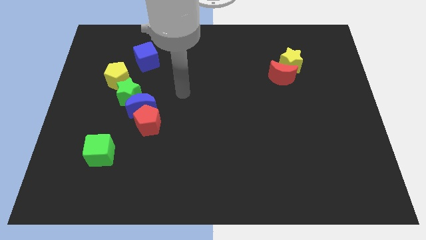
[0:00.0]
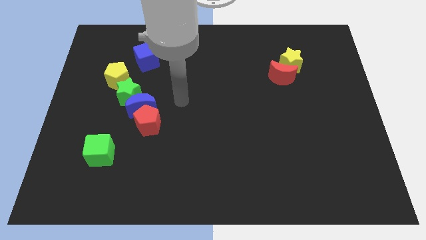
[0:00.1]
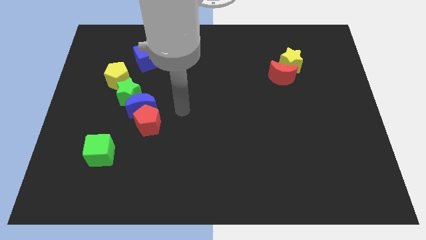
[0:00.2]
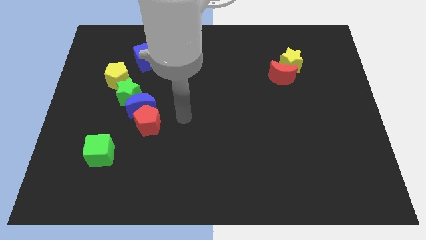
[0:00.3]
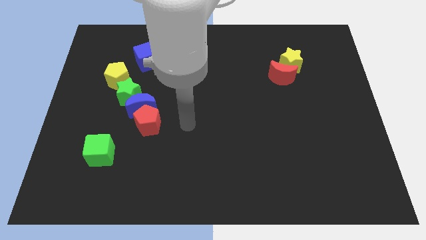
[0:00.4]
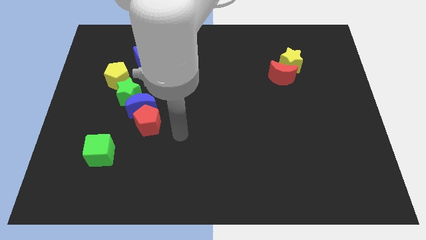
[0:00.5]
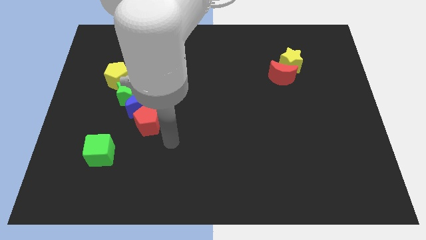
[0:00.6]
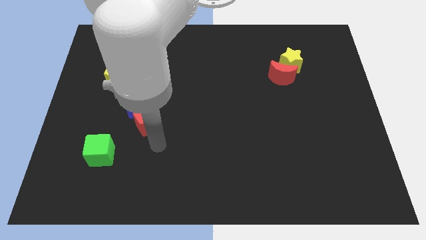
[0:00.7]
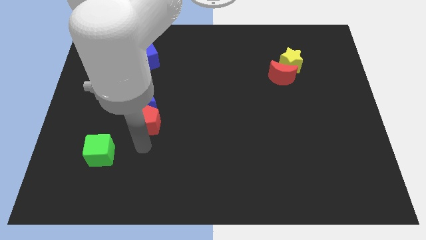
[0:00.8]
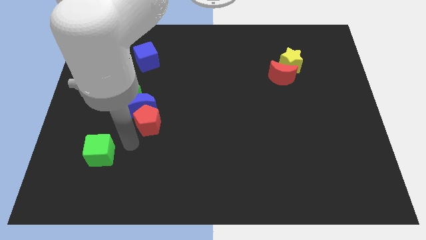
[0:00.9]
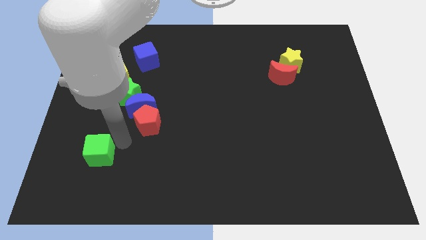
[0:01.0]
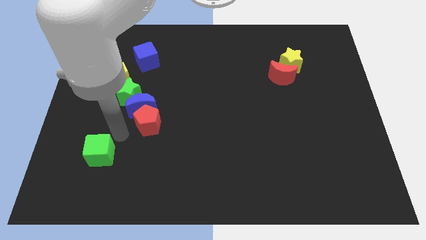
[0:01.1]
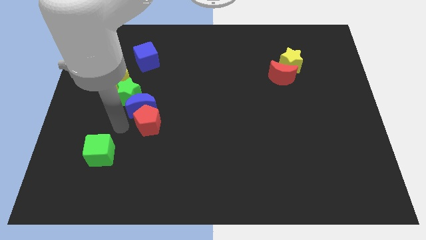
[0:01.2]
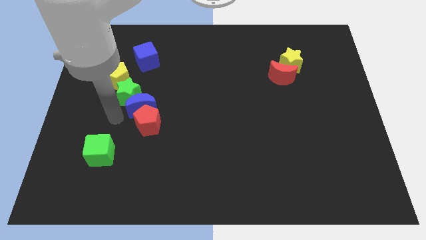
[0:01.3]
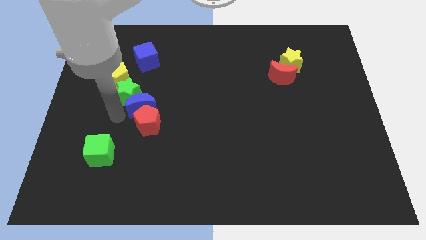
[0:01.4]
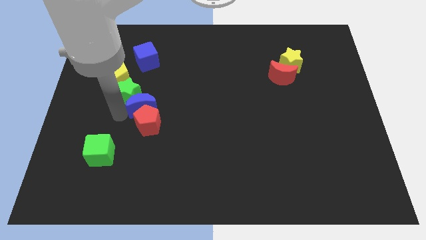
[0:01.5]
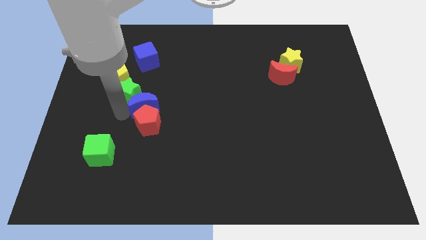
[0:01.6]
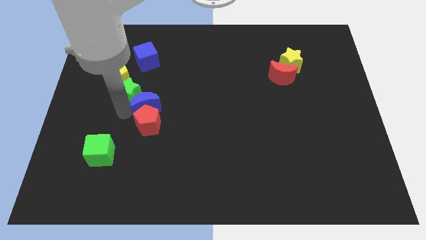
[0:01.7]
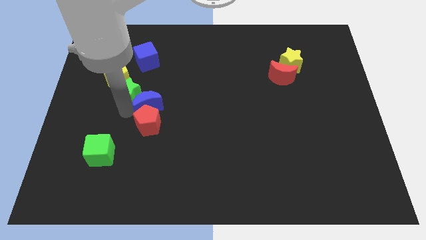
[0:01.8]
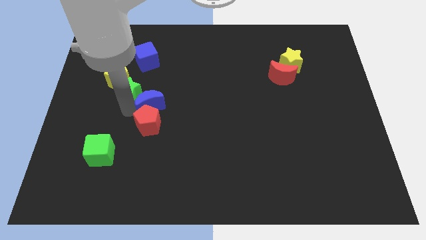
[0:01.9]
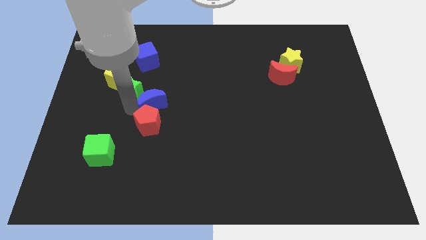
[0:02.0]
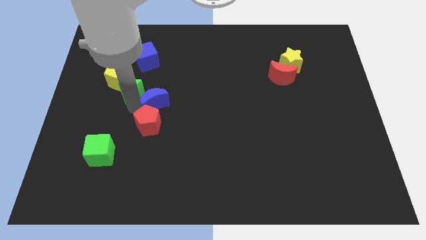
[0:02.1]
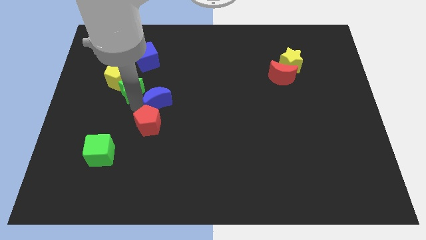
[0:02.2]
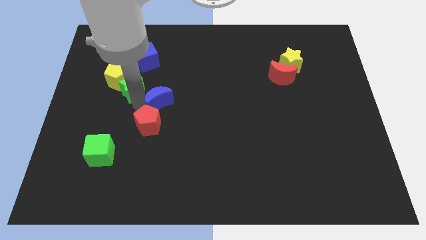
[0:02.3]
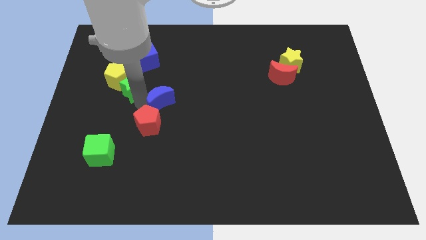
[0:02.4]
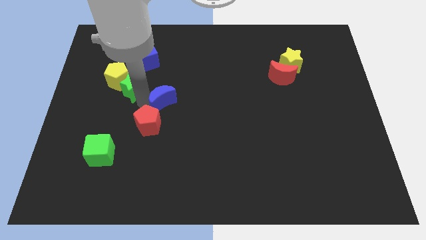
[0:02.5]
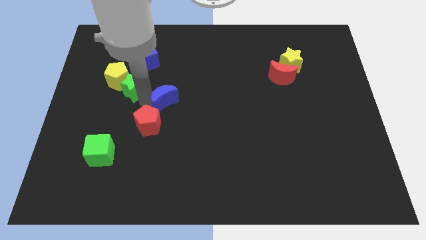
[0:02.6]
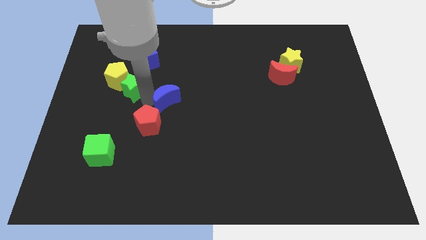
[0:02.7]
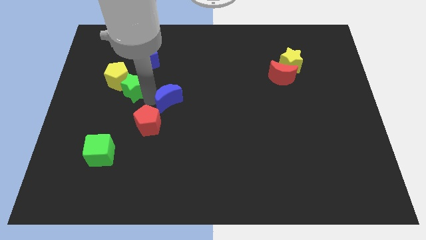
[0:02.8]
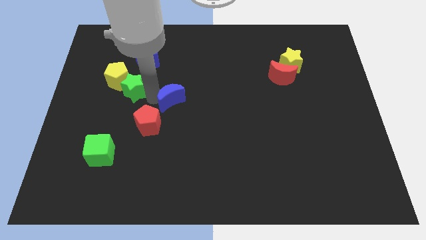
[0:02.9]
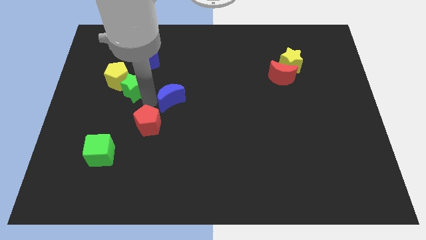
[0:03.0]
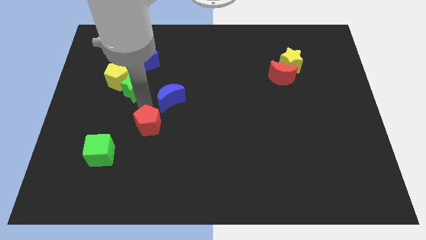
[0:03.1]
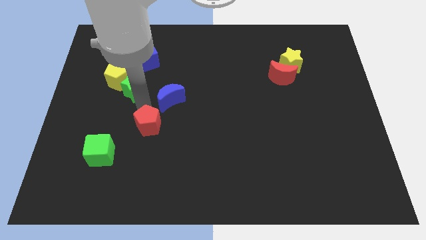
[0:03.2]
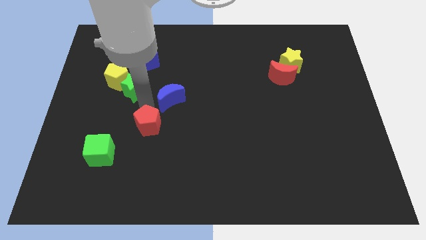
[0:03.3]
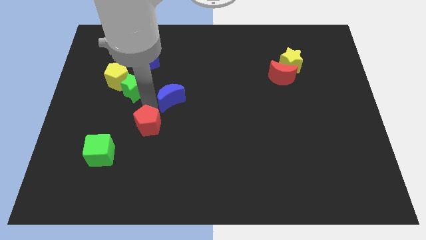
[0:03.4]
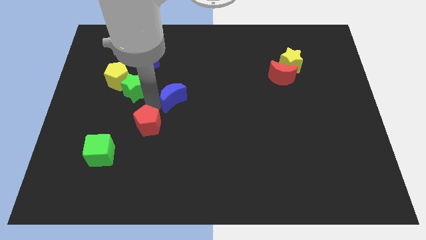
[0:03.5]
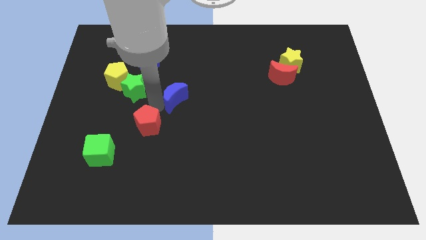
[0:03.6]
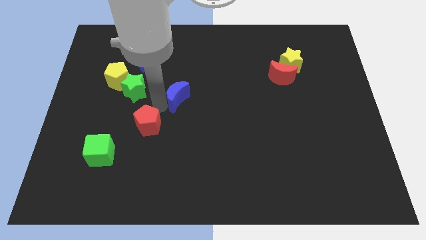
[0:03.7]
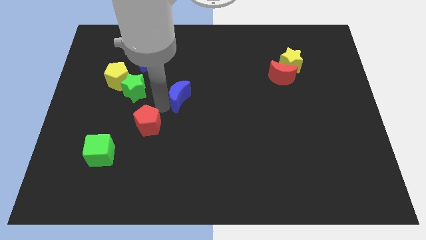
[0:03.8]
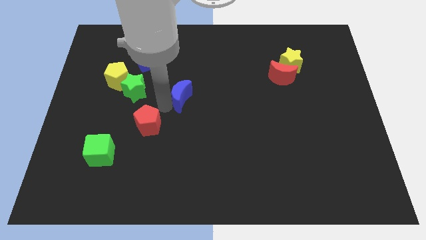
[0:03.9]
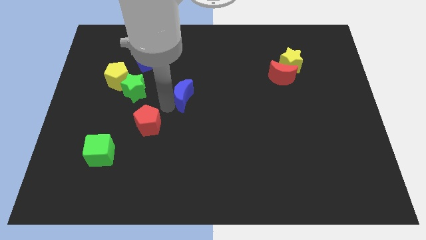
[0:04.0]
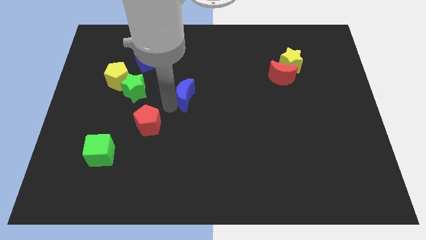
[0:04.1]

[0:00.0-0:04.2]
move the blue moon away from the green star and red pentagon

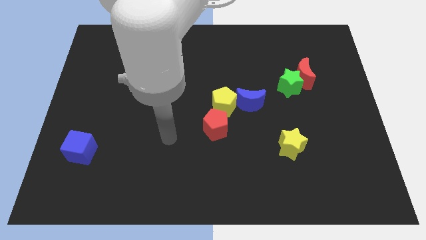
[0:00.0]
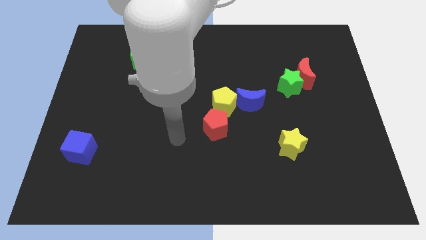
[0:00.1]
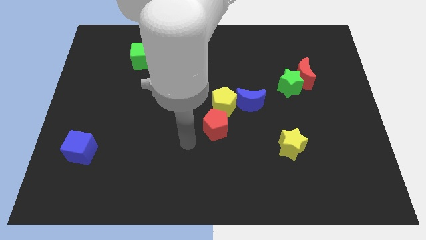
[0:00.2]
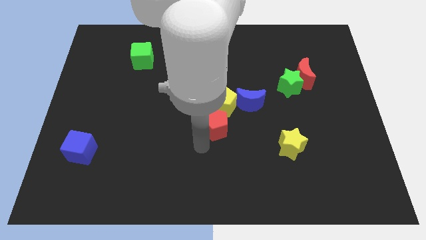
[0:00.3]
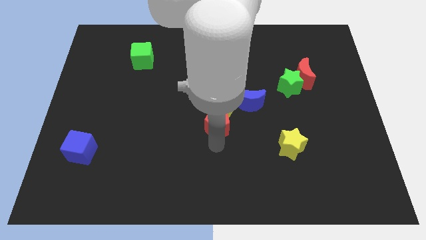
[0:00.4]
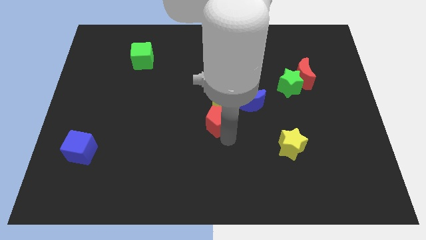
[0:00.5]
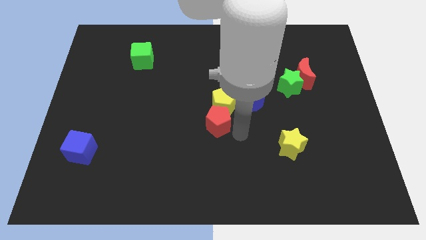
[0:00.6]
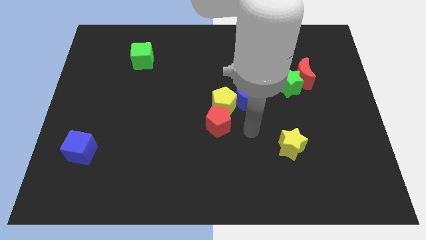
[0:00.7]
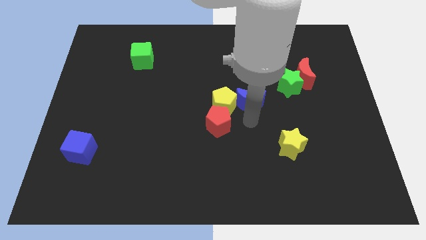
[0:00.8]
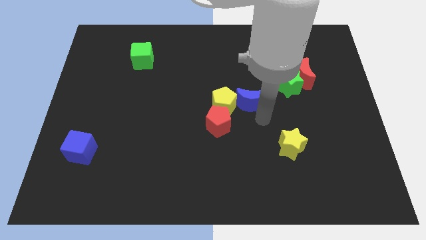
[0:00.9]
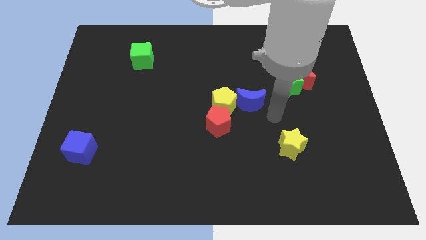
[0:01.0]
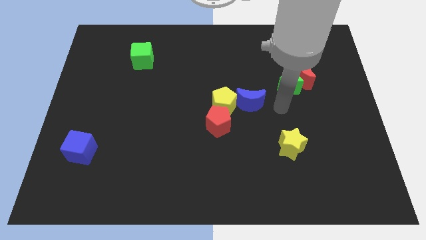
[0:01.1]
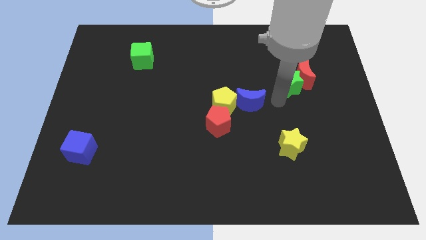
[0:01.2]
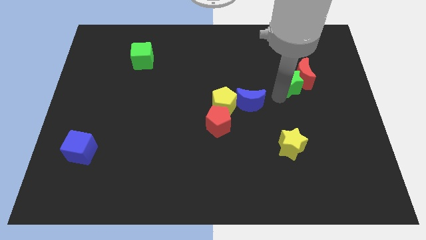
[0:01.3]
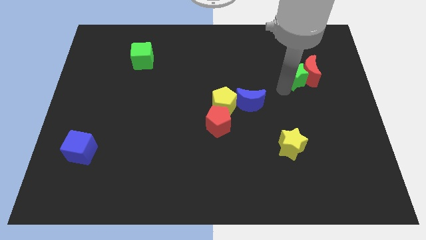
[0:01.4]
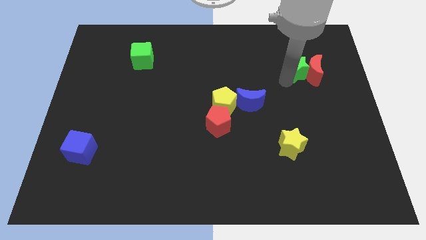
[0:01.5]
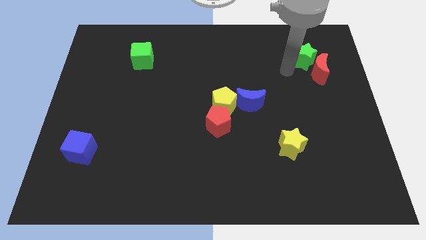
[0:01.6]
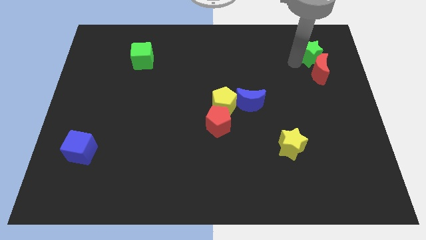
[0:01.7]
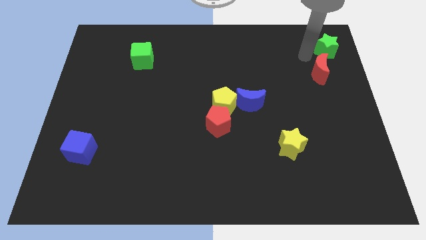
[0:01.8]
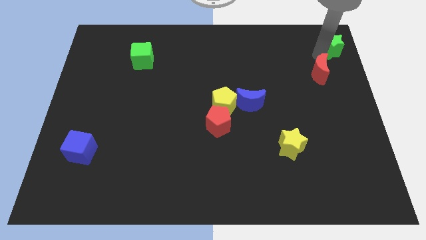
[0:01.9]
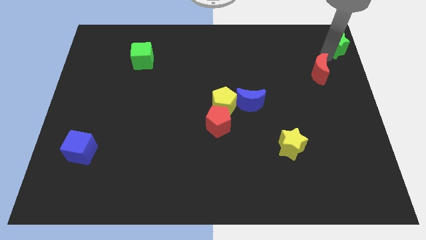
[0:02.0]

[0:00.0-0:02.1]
separate the red moon from the green star

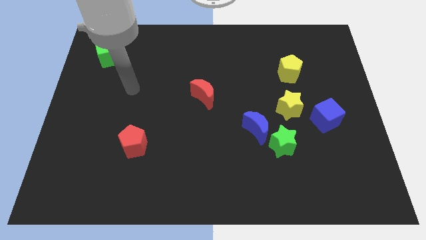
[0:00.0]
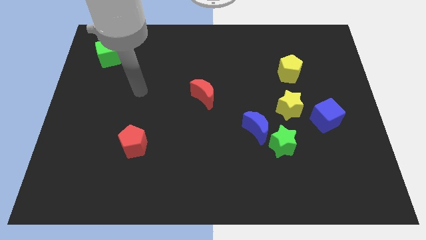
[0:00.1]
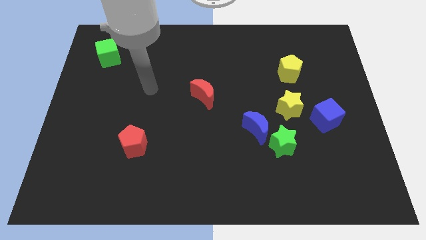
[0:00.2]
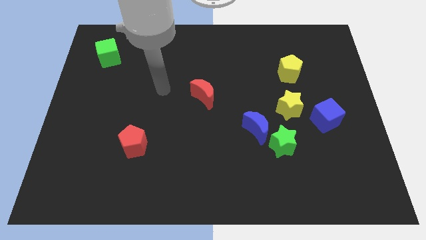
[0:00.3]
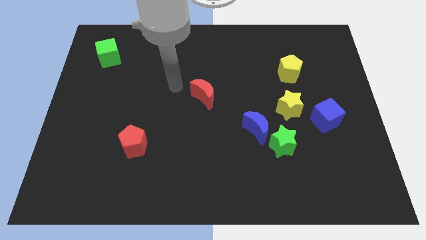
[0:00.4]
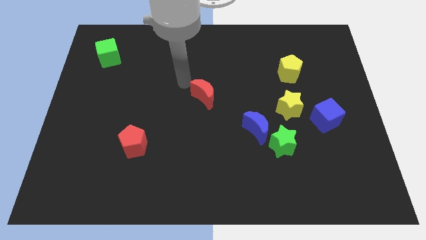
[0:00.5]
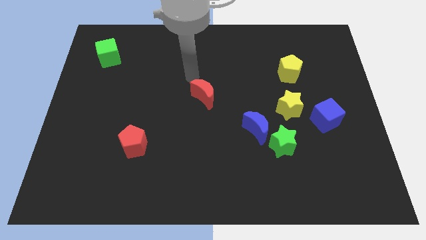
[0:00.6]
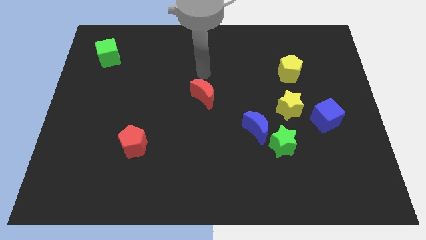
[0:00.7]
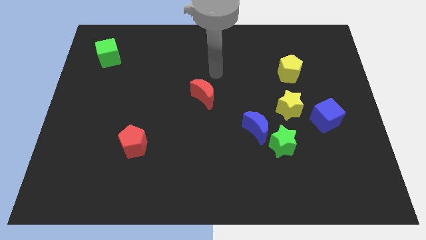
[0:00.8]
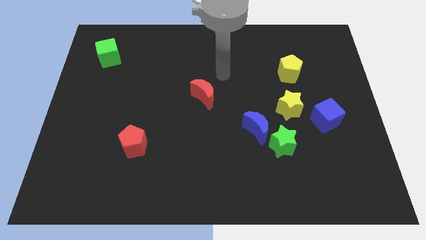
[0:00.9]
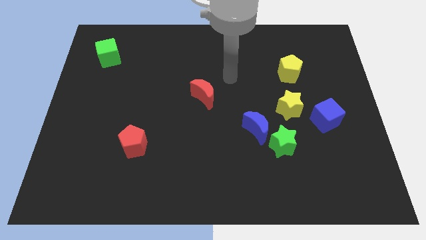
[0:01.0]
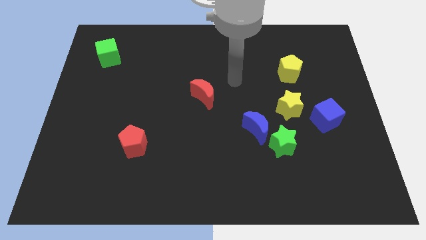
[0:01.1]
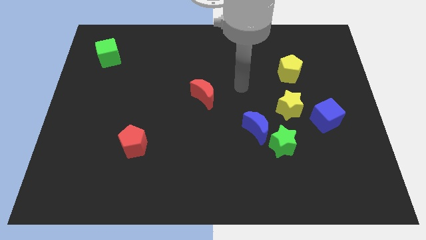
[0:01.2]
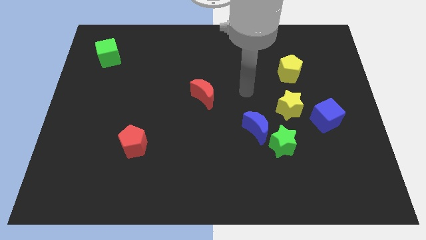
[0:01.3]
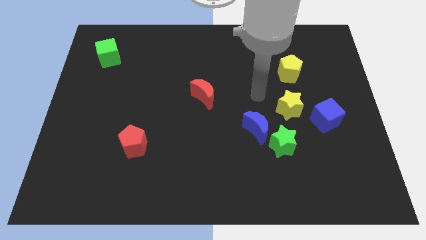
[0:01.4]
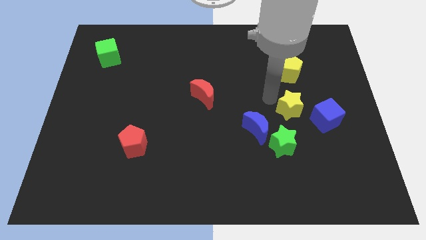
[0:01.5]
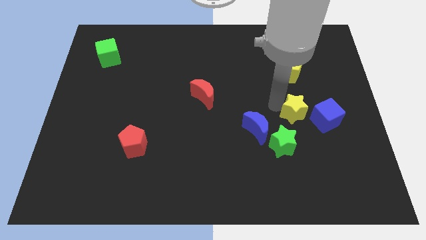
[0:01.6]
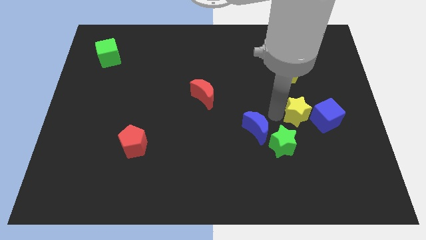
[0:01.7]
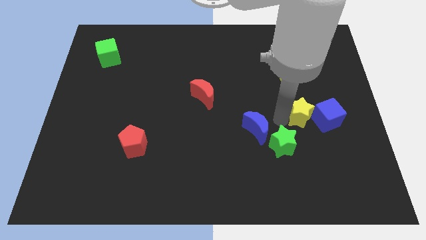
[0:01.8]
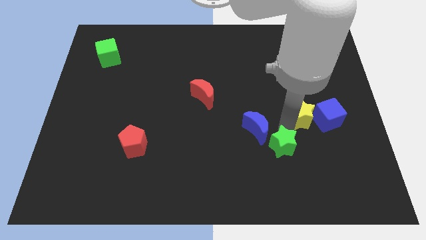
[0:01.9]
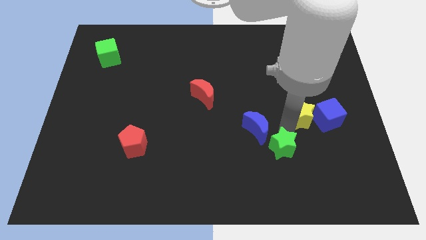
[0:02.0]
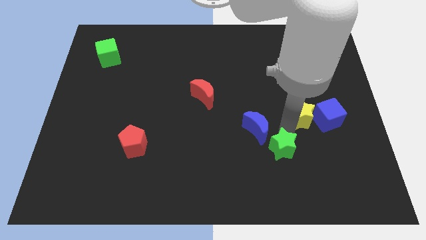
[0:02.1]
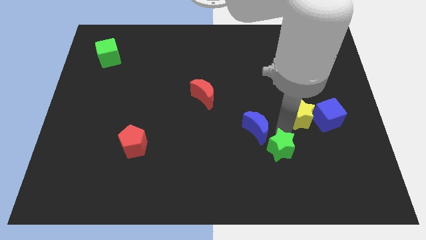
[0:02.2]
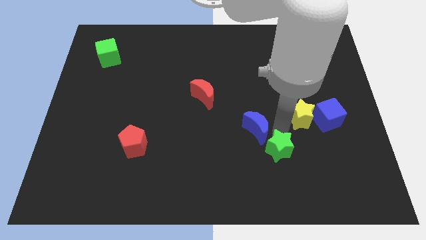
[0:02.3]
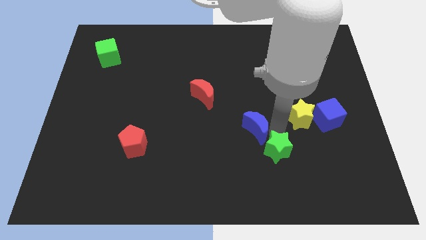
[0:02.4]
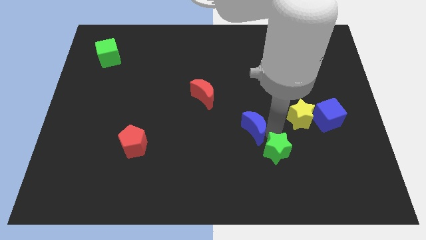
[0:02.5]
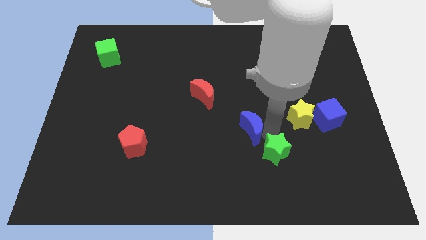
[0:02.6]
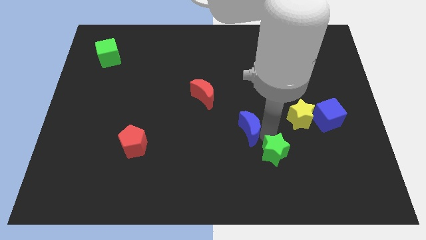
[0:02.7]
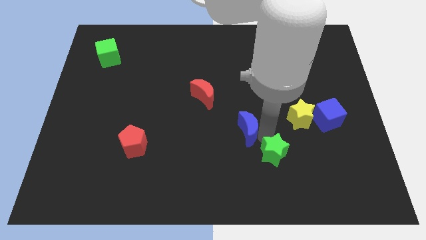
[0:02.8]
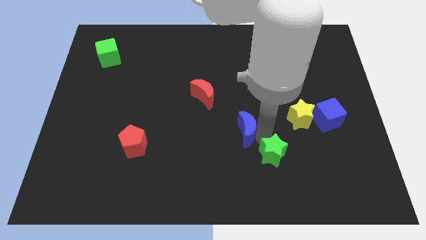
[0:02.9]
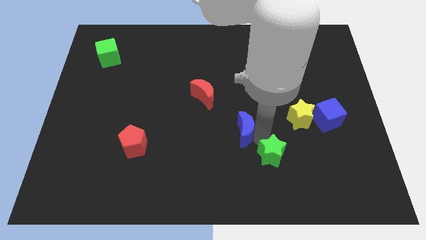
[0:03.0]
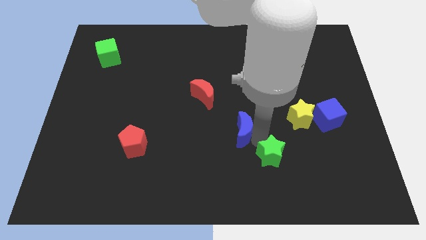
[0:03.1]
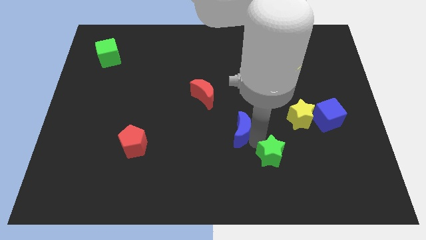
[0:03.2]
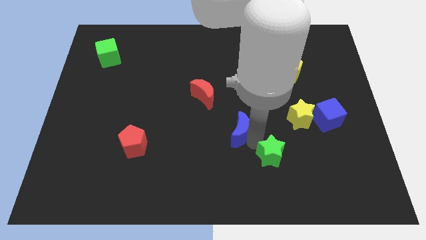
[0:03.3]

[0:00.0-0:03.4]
move the blue moon away from the green star and yellow star
